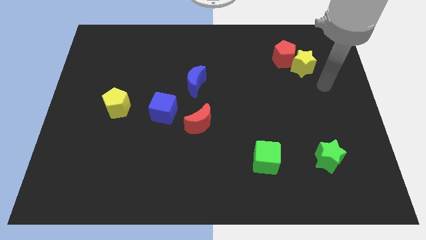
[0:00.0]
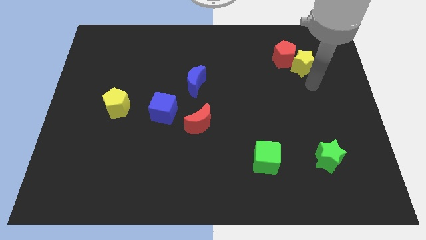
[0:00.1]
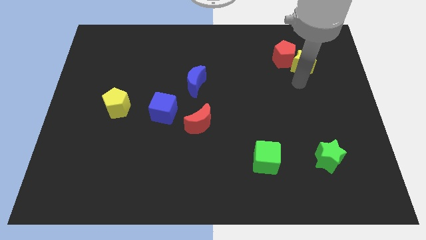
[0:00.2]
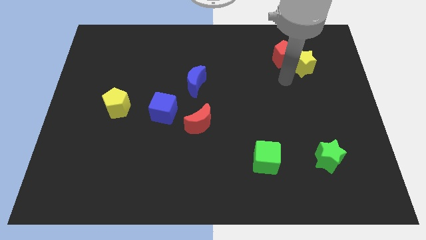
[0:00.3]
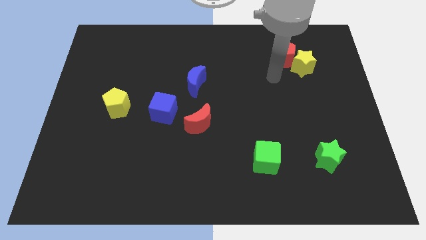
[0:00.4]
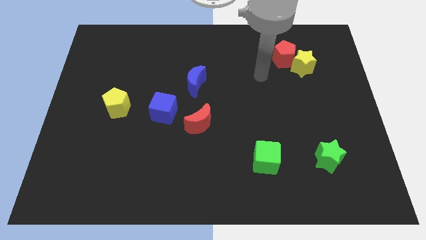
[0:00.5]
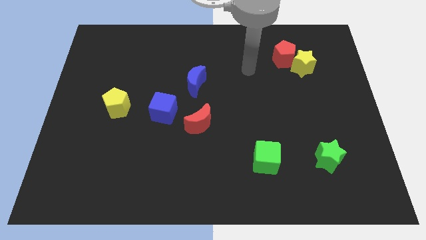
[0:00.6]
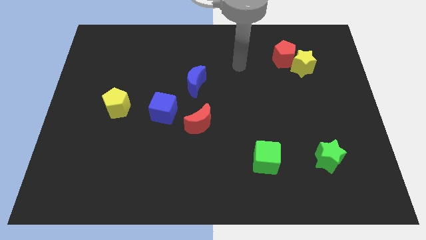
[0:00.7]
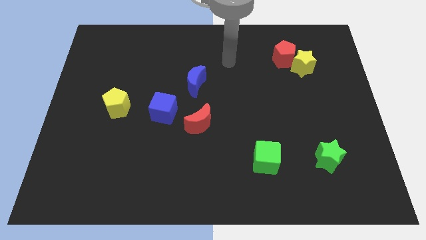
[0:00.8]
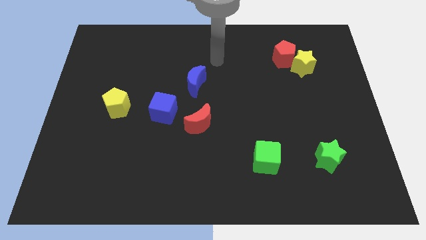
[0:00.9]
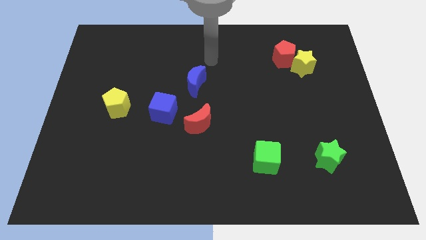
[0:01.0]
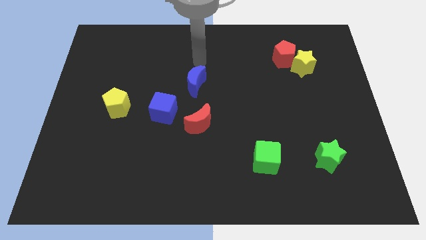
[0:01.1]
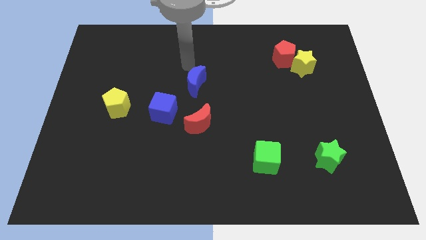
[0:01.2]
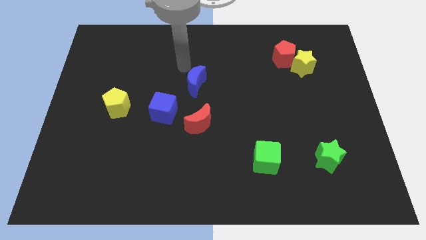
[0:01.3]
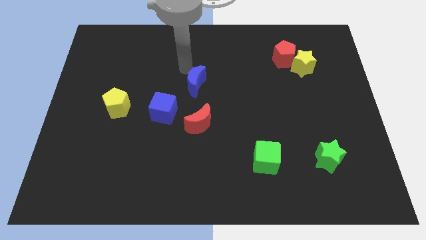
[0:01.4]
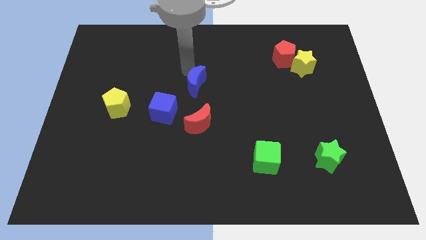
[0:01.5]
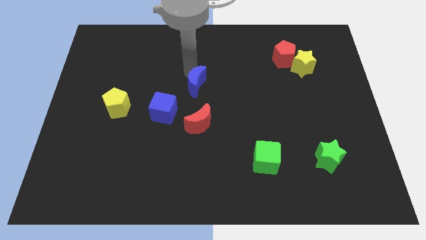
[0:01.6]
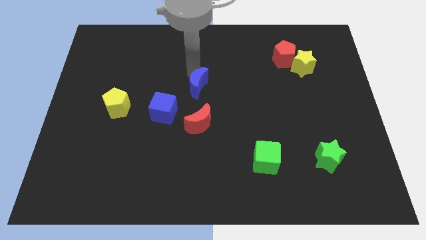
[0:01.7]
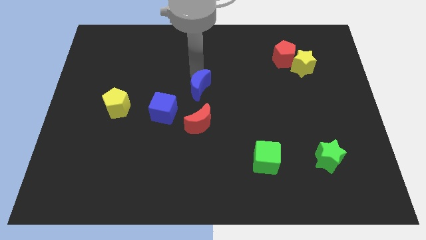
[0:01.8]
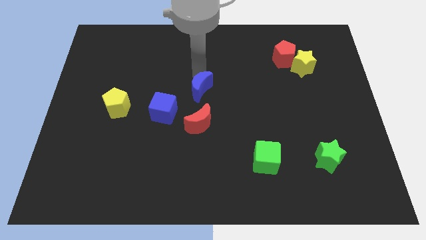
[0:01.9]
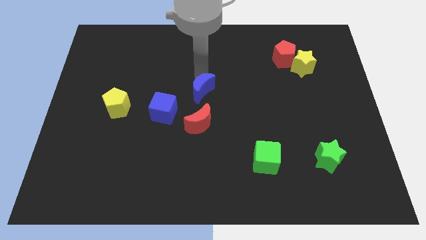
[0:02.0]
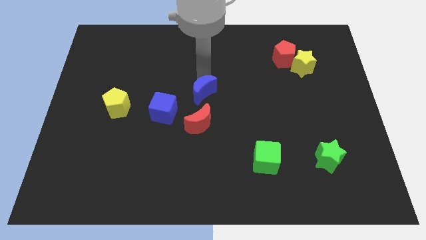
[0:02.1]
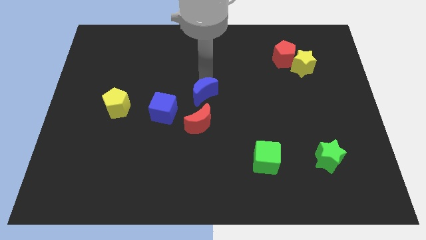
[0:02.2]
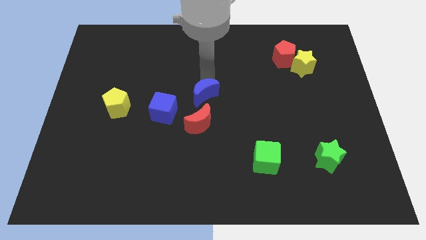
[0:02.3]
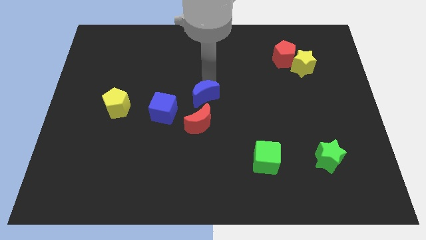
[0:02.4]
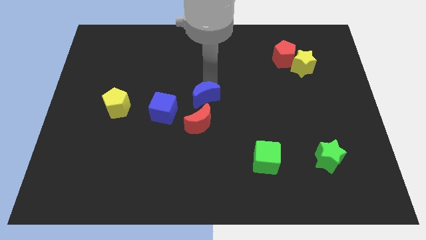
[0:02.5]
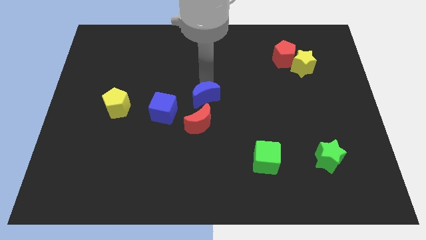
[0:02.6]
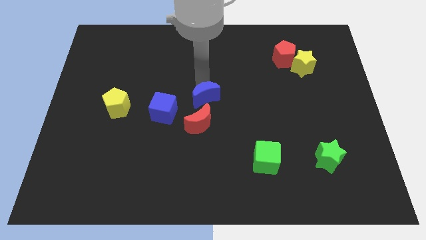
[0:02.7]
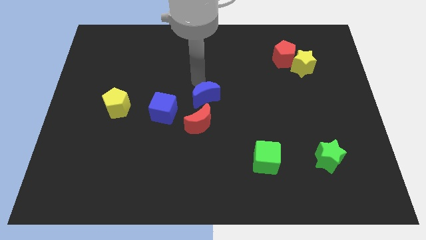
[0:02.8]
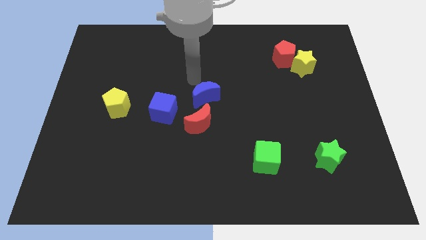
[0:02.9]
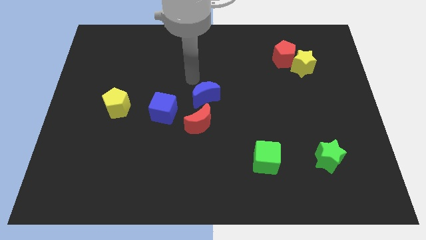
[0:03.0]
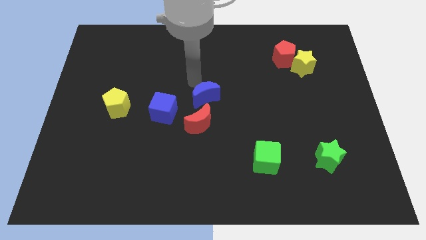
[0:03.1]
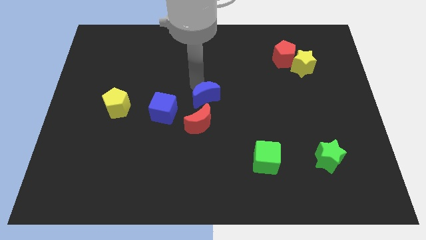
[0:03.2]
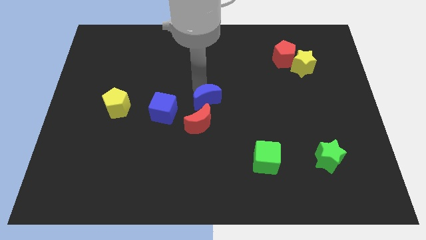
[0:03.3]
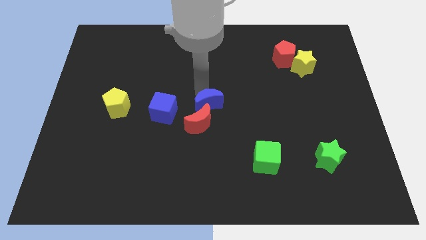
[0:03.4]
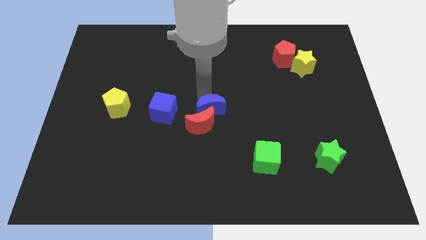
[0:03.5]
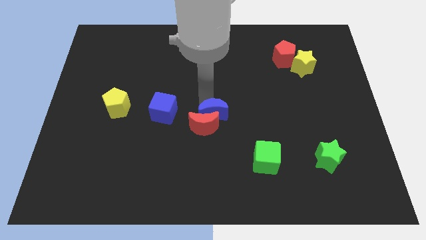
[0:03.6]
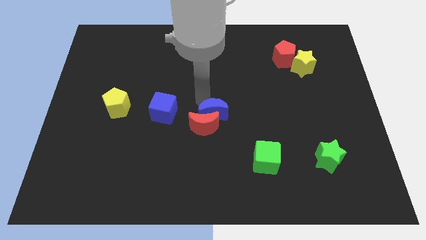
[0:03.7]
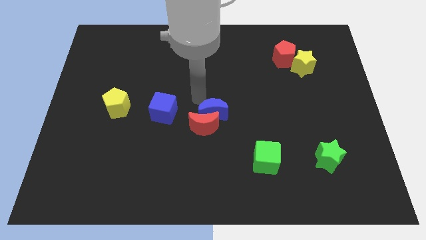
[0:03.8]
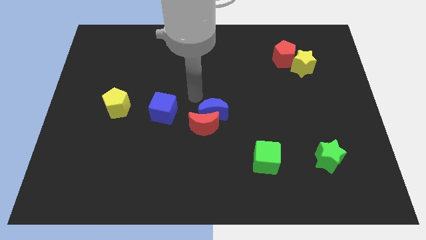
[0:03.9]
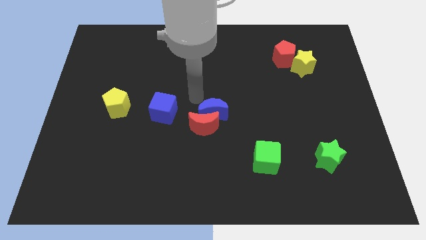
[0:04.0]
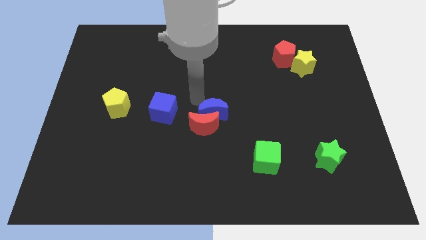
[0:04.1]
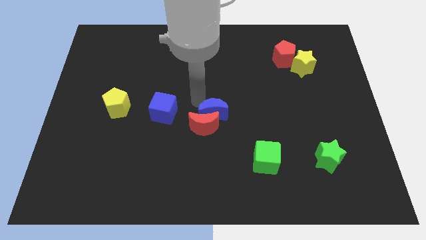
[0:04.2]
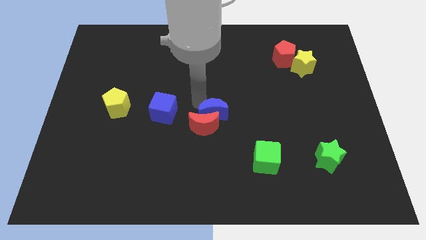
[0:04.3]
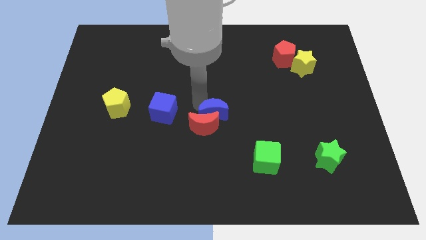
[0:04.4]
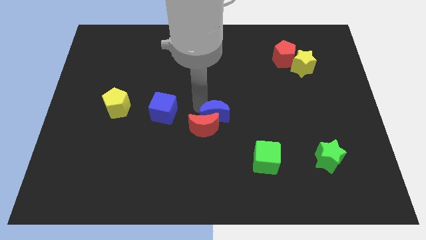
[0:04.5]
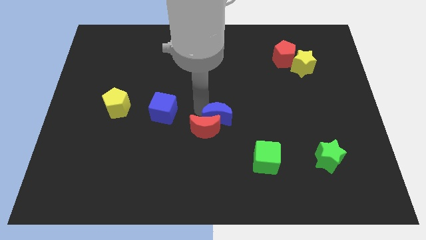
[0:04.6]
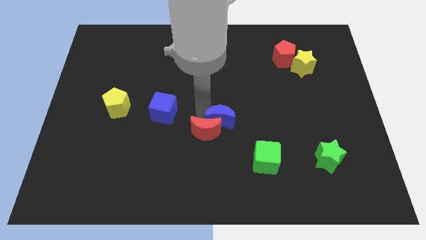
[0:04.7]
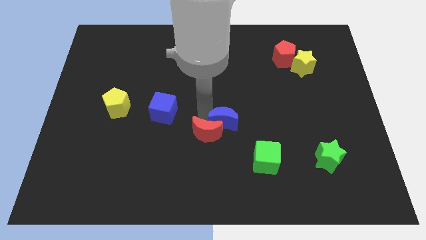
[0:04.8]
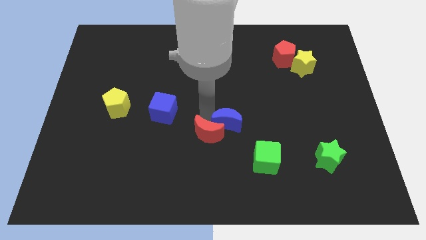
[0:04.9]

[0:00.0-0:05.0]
put the blue moon to the top left of the green cube

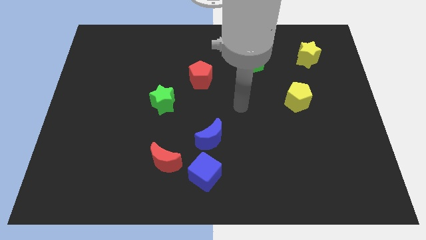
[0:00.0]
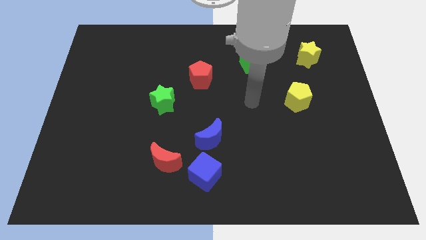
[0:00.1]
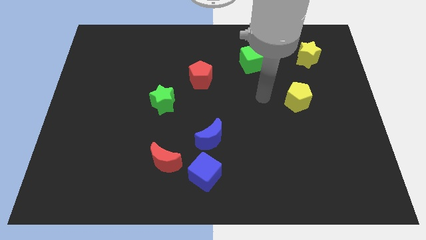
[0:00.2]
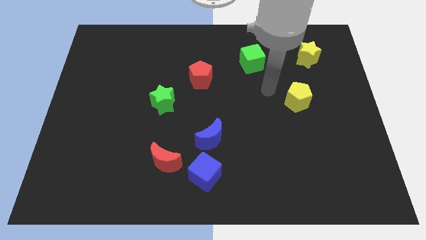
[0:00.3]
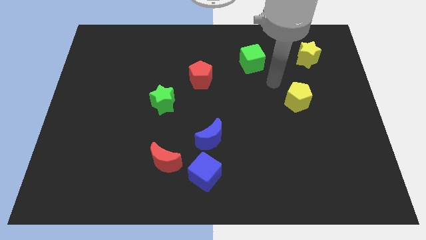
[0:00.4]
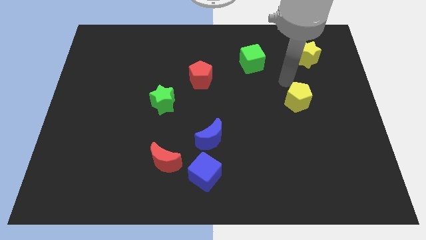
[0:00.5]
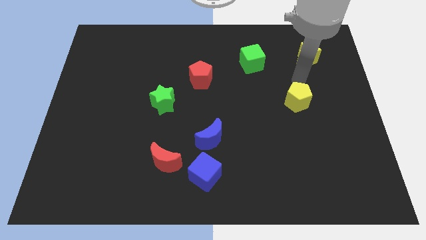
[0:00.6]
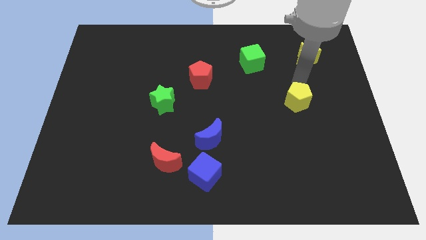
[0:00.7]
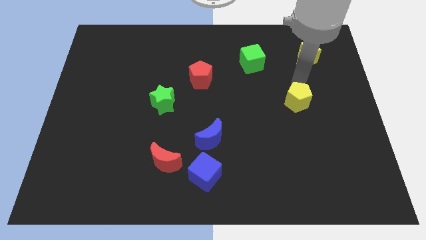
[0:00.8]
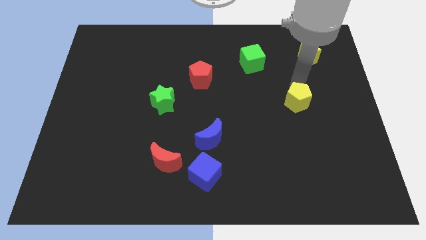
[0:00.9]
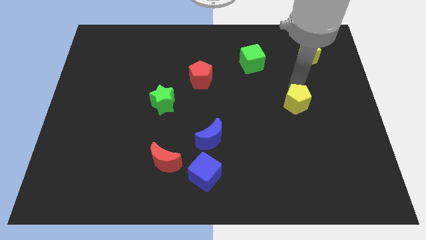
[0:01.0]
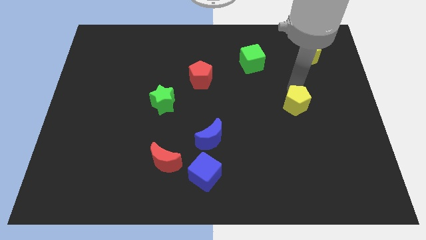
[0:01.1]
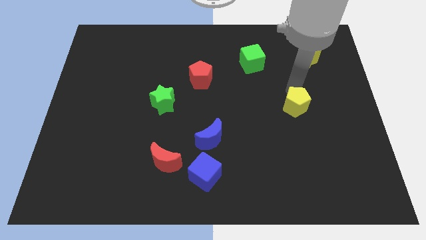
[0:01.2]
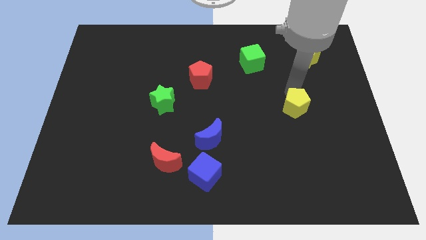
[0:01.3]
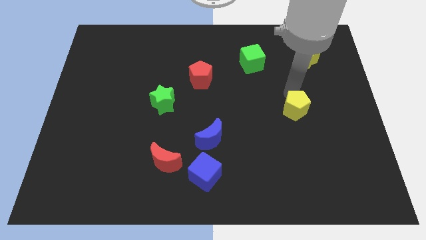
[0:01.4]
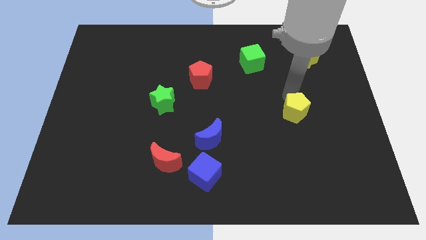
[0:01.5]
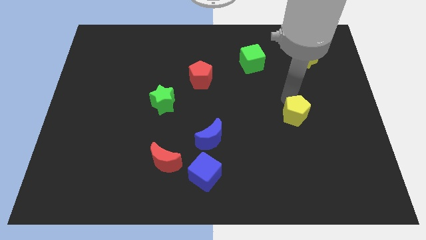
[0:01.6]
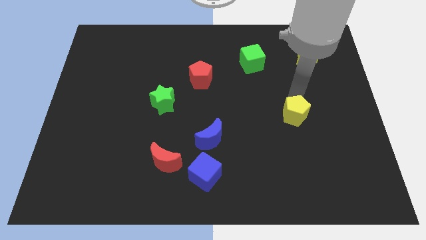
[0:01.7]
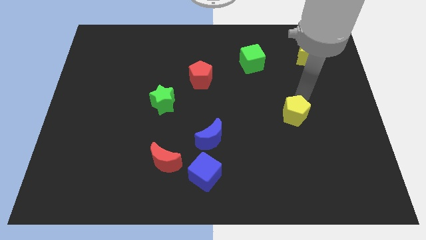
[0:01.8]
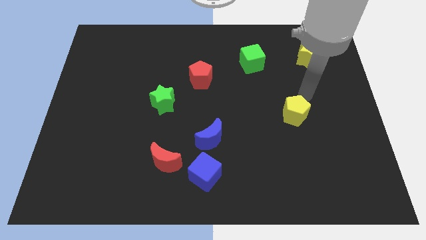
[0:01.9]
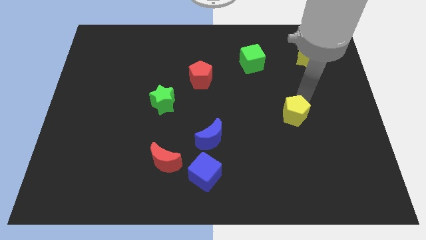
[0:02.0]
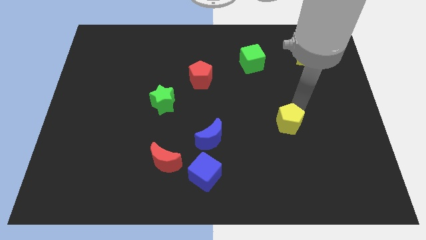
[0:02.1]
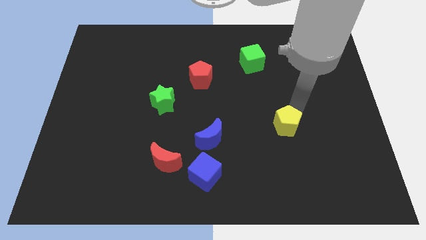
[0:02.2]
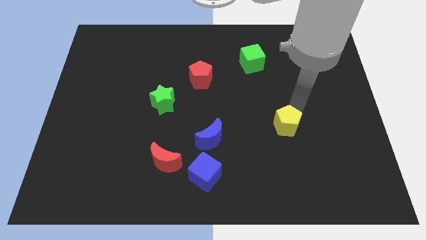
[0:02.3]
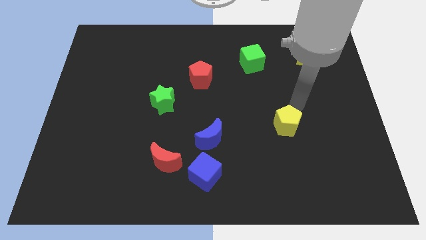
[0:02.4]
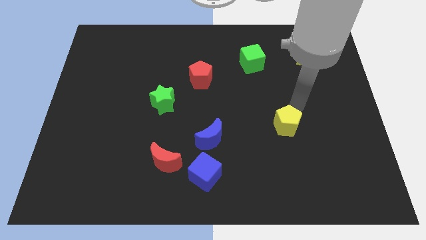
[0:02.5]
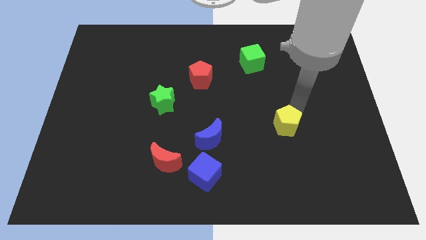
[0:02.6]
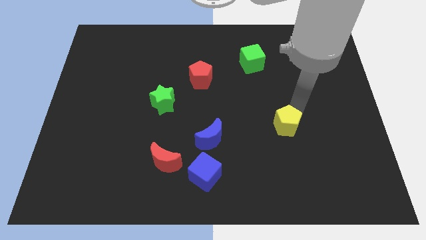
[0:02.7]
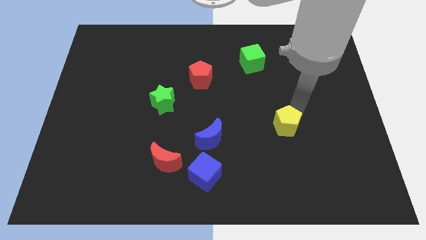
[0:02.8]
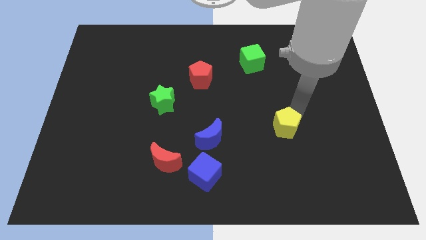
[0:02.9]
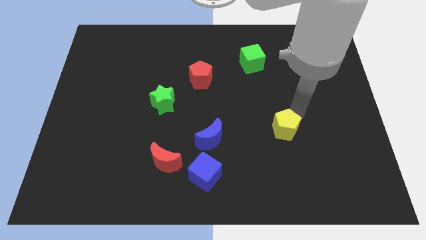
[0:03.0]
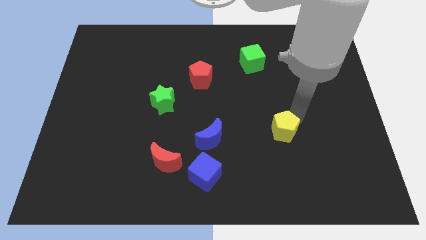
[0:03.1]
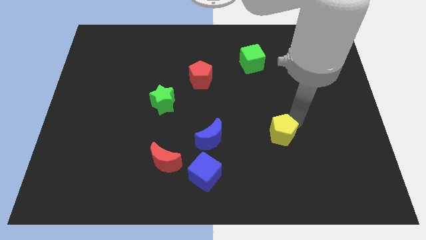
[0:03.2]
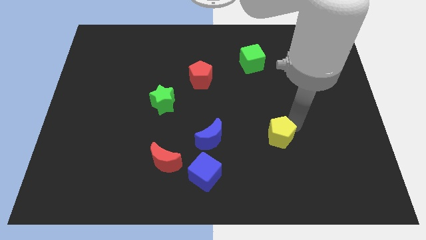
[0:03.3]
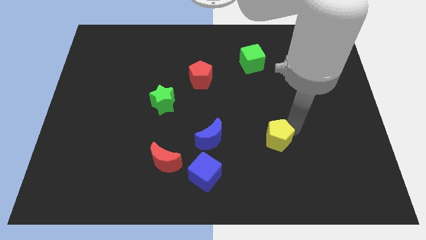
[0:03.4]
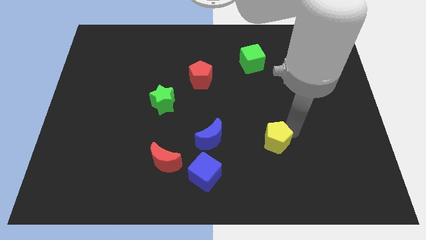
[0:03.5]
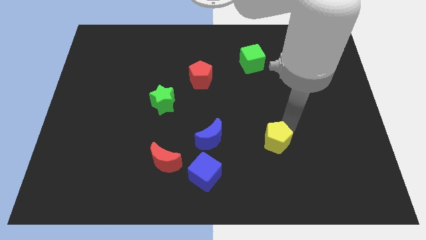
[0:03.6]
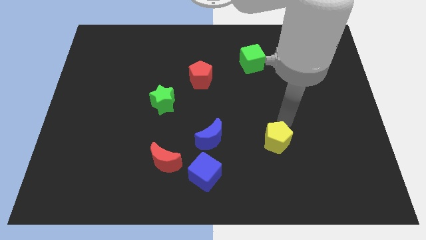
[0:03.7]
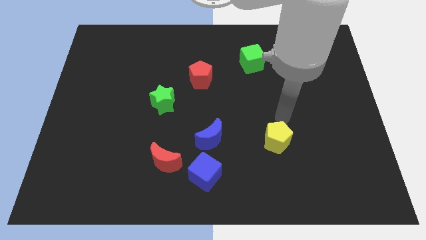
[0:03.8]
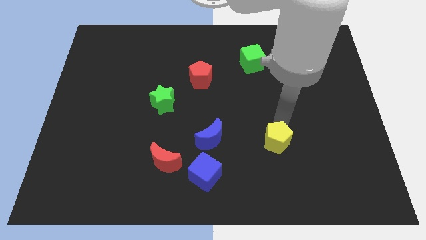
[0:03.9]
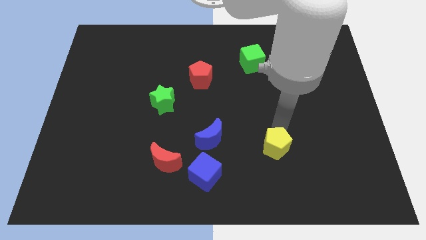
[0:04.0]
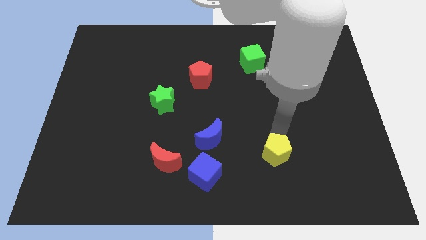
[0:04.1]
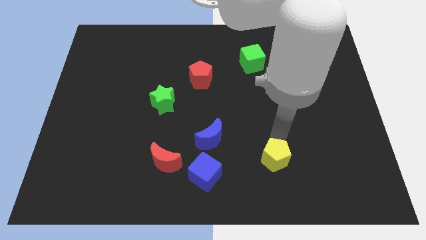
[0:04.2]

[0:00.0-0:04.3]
push the yellow pentagon just right of the blue cube
